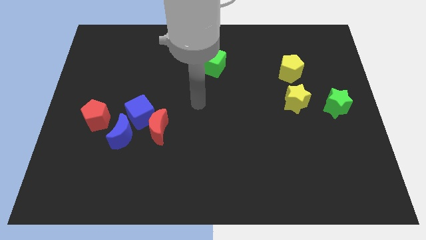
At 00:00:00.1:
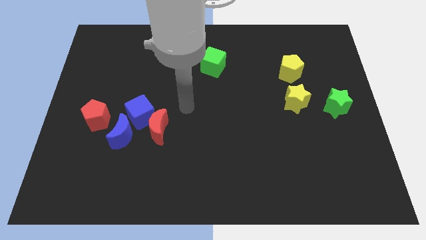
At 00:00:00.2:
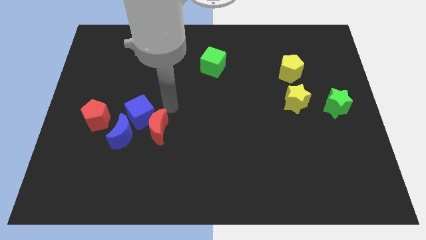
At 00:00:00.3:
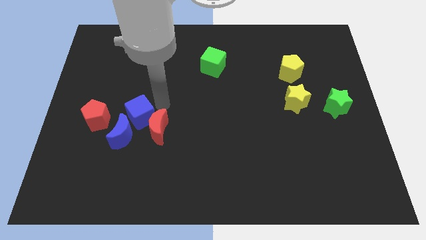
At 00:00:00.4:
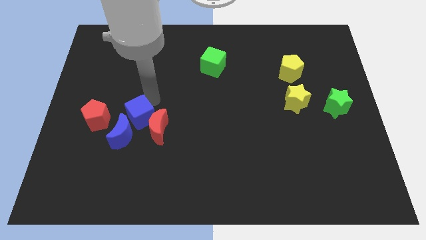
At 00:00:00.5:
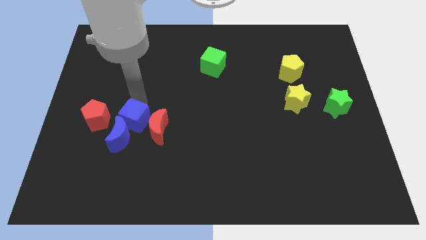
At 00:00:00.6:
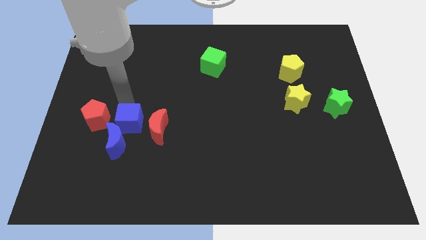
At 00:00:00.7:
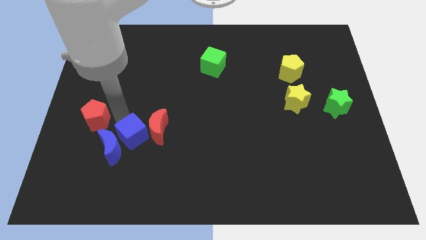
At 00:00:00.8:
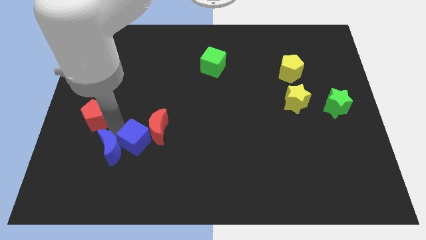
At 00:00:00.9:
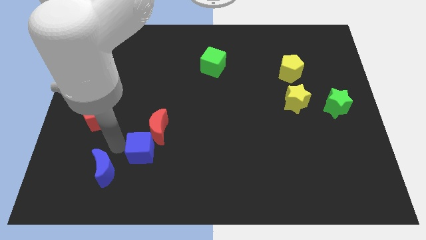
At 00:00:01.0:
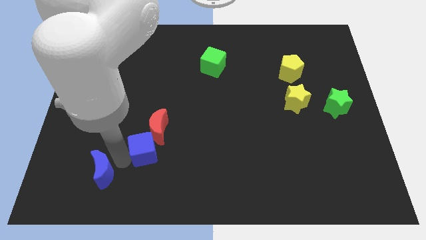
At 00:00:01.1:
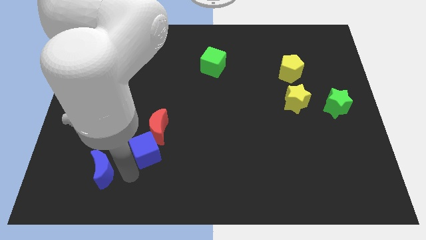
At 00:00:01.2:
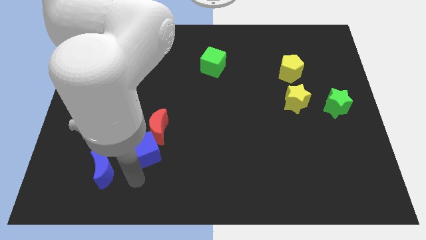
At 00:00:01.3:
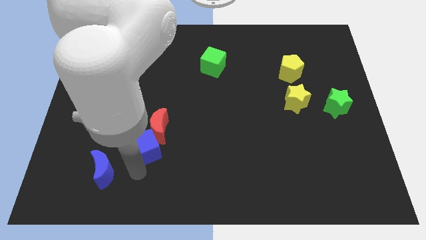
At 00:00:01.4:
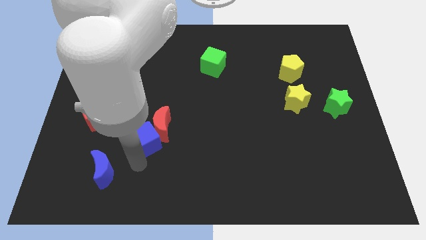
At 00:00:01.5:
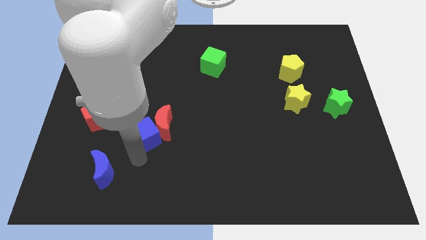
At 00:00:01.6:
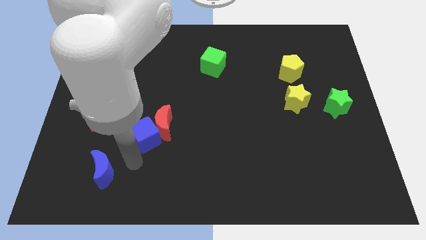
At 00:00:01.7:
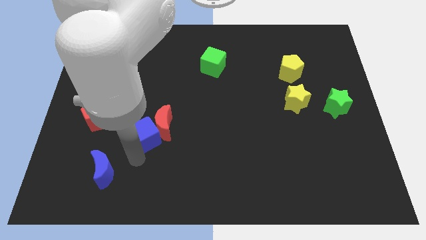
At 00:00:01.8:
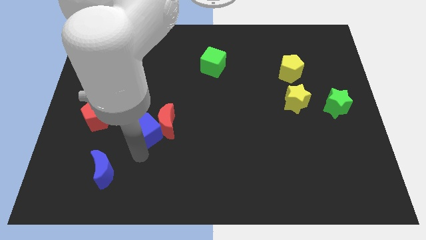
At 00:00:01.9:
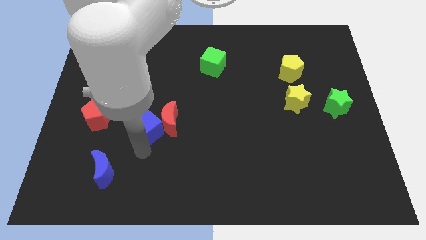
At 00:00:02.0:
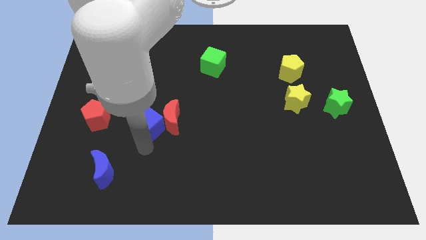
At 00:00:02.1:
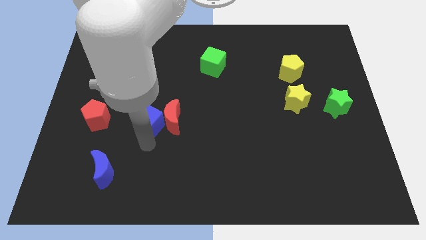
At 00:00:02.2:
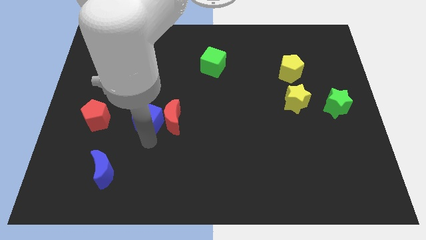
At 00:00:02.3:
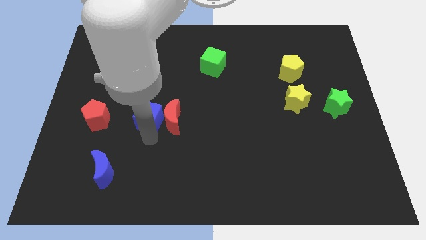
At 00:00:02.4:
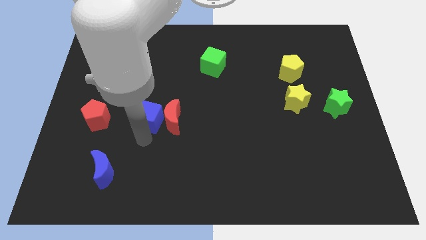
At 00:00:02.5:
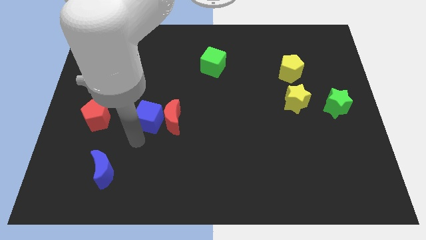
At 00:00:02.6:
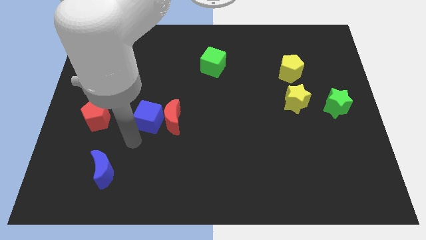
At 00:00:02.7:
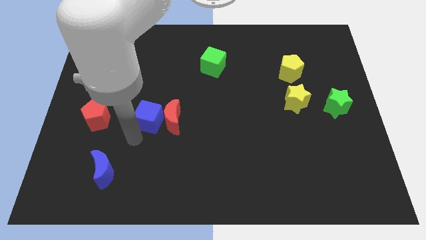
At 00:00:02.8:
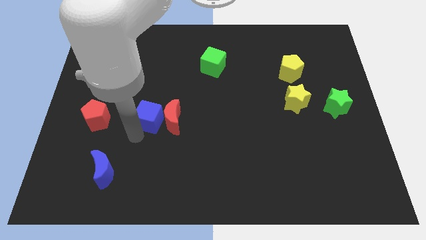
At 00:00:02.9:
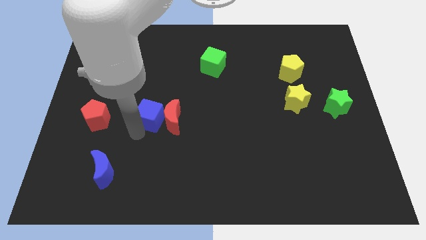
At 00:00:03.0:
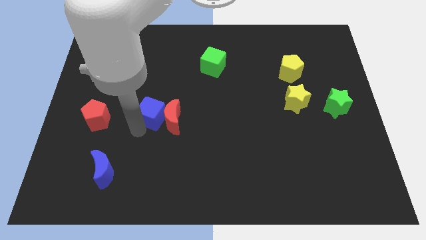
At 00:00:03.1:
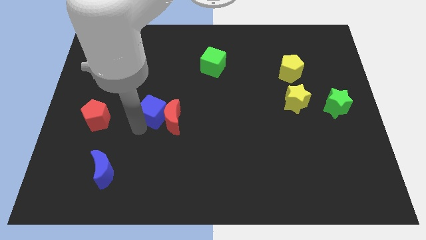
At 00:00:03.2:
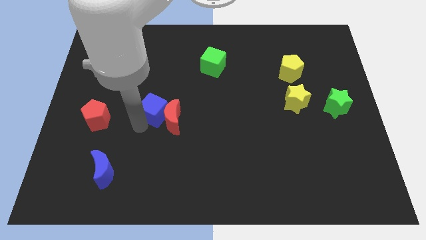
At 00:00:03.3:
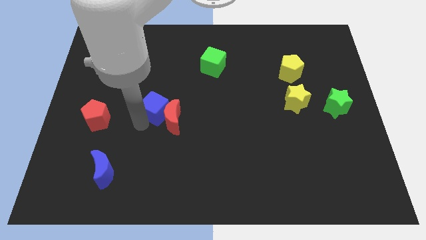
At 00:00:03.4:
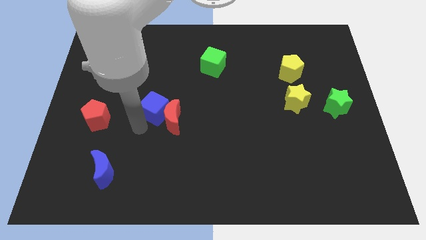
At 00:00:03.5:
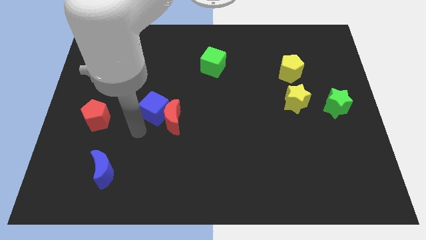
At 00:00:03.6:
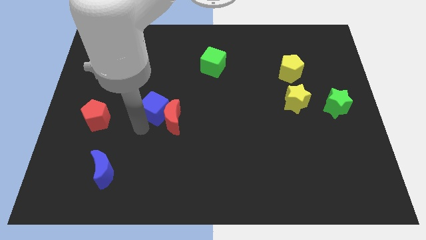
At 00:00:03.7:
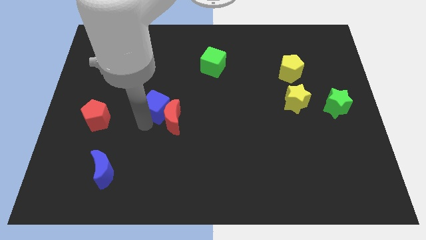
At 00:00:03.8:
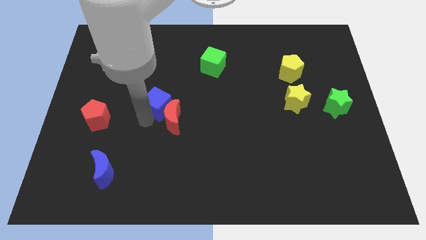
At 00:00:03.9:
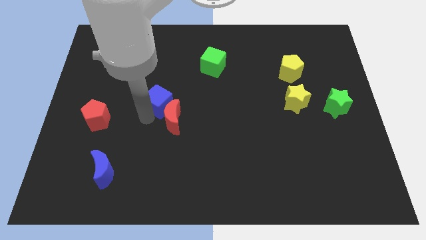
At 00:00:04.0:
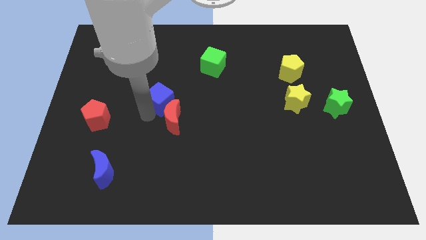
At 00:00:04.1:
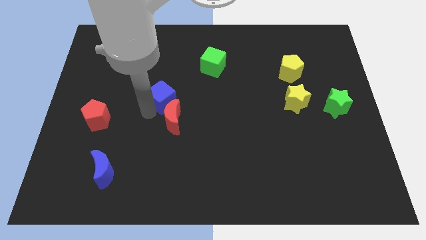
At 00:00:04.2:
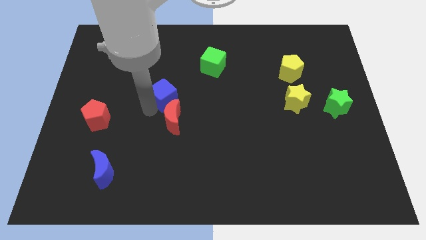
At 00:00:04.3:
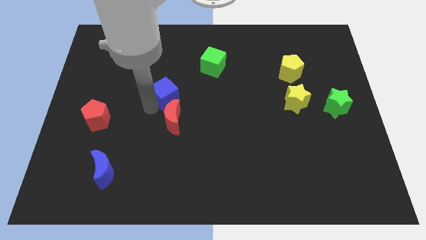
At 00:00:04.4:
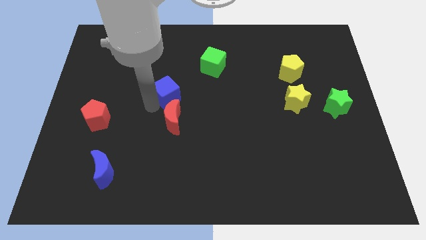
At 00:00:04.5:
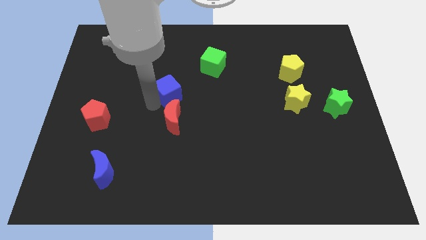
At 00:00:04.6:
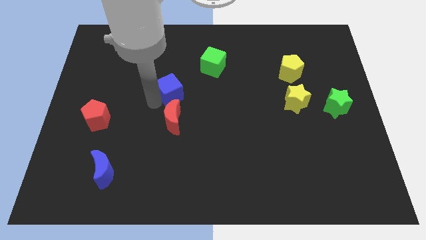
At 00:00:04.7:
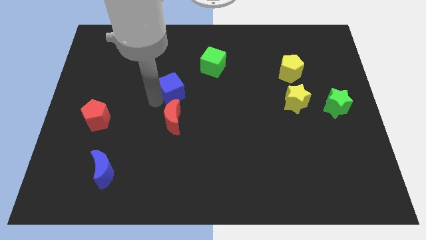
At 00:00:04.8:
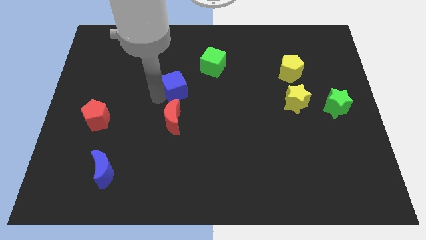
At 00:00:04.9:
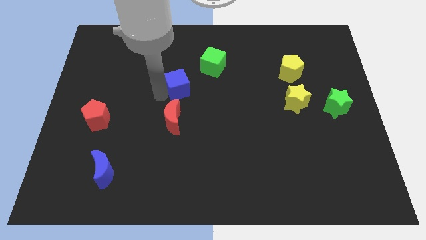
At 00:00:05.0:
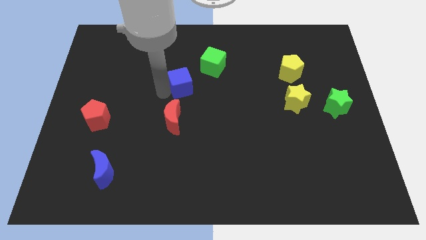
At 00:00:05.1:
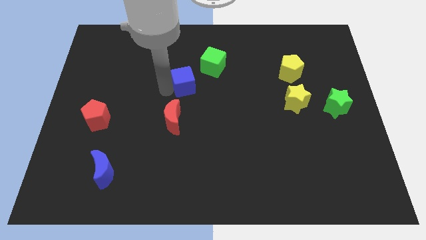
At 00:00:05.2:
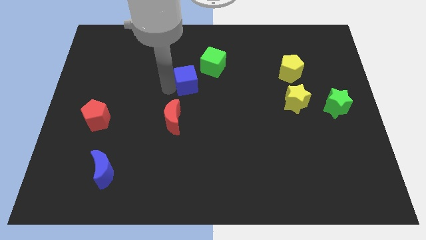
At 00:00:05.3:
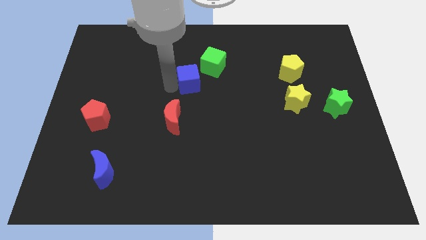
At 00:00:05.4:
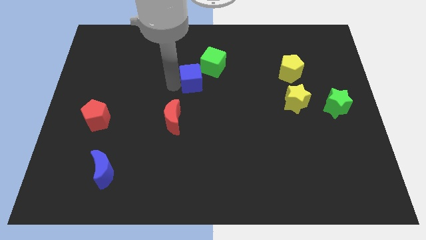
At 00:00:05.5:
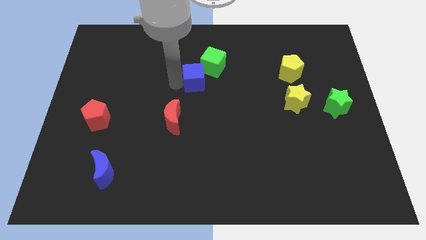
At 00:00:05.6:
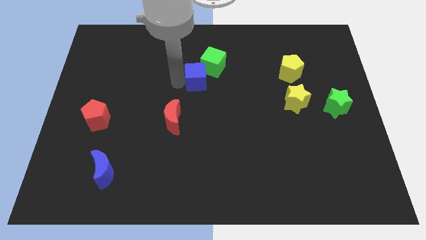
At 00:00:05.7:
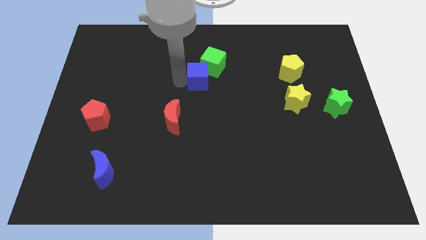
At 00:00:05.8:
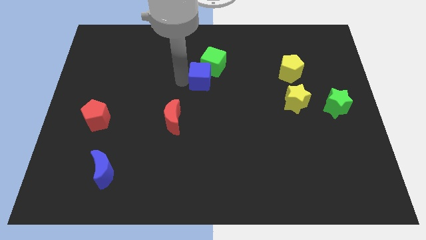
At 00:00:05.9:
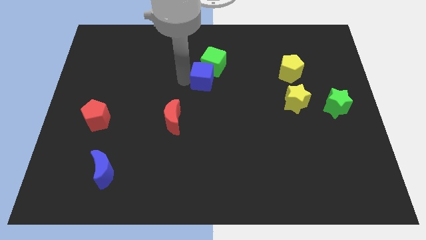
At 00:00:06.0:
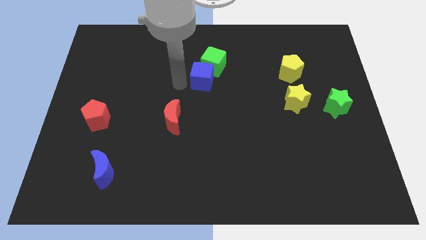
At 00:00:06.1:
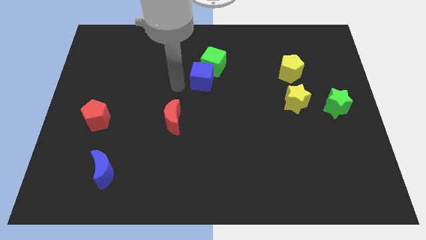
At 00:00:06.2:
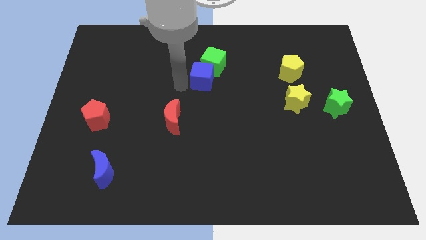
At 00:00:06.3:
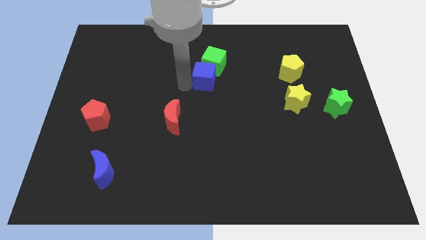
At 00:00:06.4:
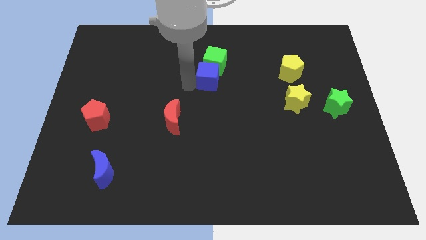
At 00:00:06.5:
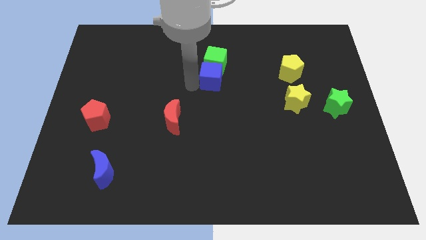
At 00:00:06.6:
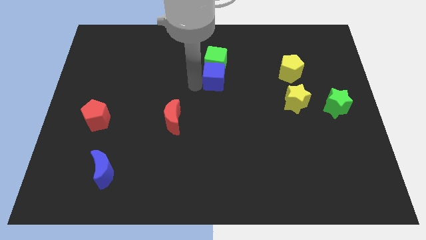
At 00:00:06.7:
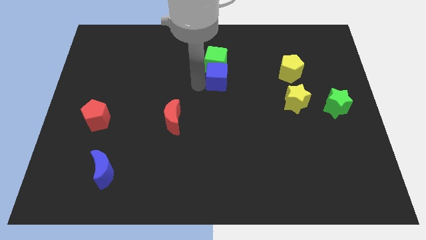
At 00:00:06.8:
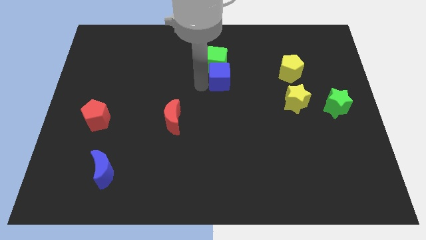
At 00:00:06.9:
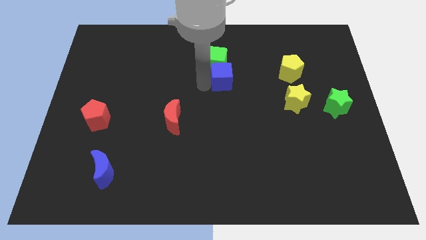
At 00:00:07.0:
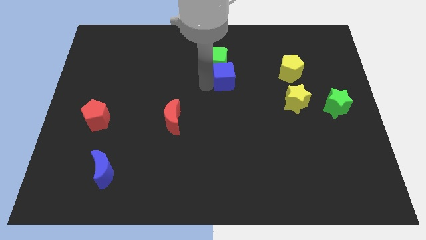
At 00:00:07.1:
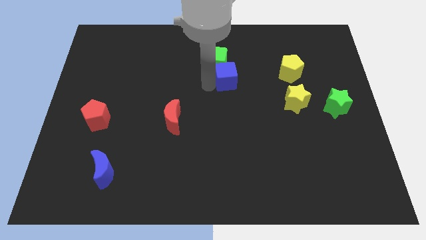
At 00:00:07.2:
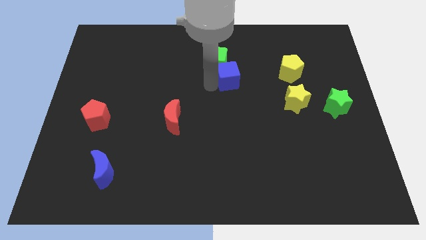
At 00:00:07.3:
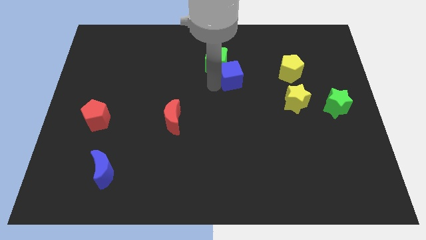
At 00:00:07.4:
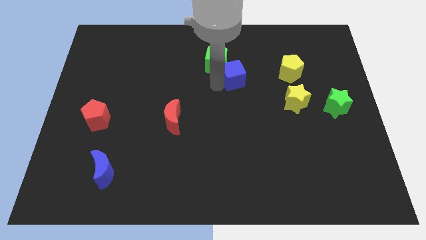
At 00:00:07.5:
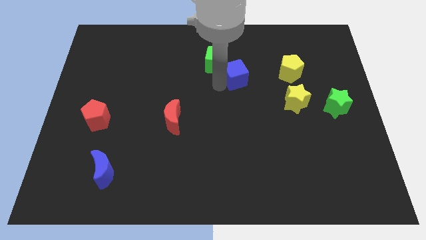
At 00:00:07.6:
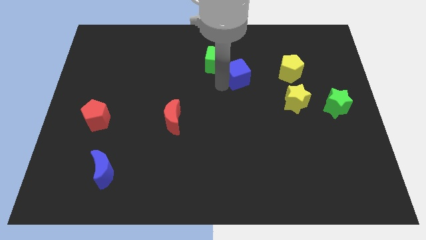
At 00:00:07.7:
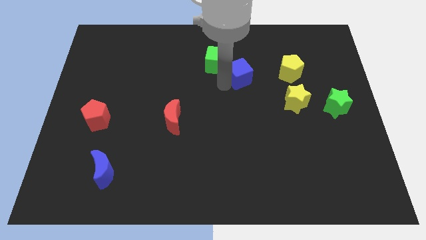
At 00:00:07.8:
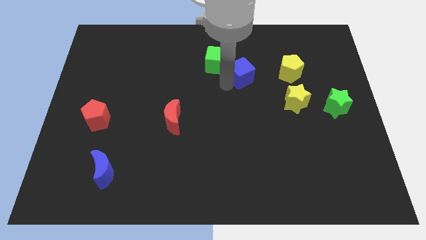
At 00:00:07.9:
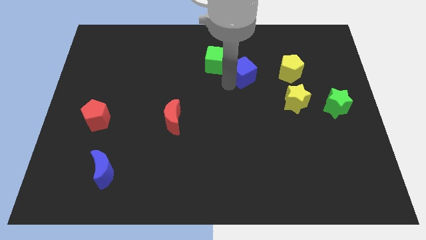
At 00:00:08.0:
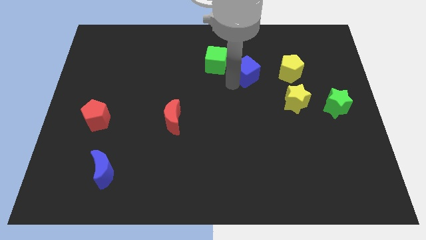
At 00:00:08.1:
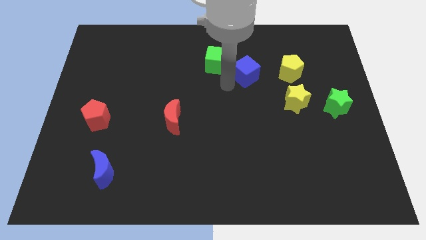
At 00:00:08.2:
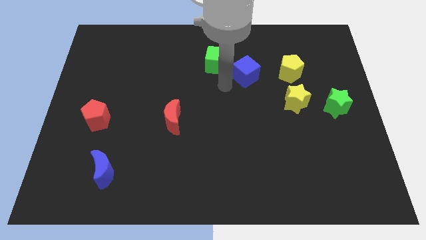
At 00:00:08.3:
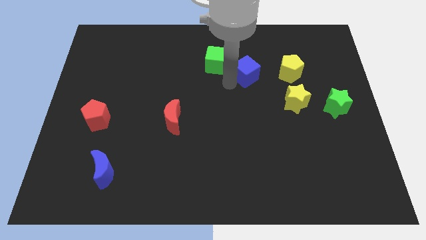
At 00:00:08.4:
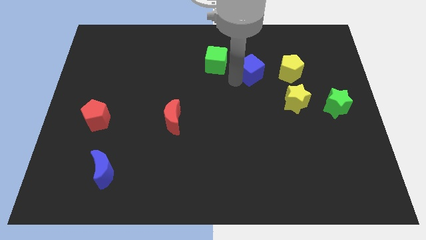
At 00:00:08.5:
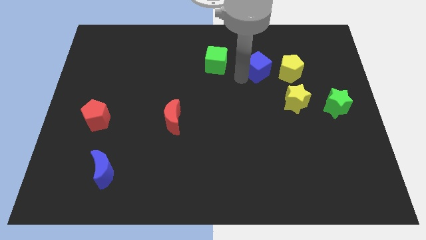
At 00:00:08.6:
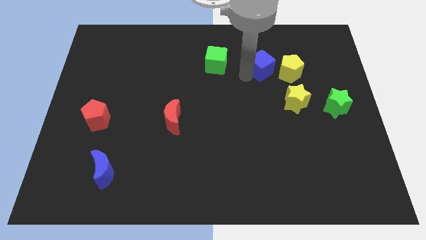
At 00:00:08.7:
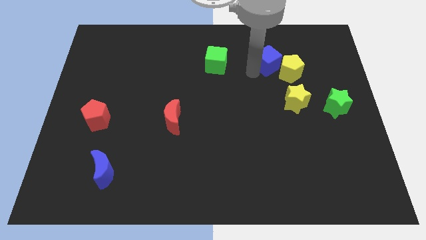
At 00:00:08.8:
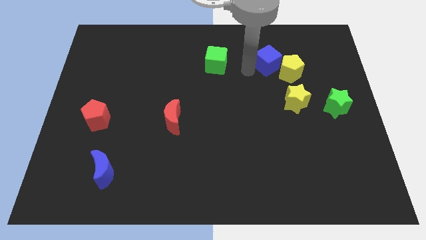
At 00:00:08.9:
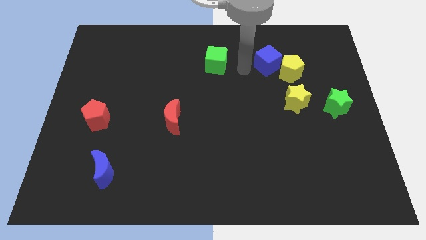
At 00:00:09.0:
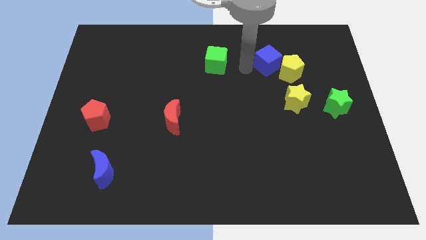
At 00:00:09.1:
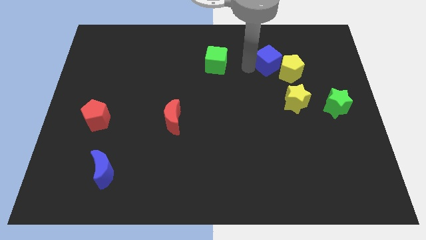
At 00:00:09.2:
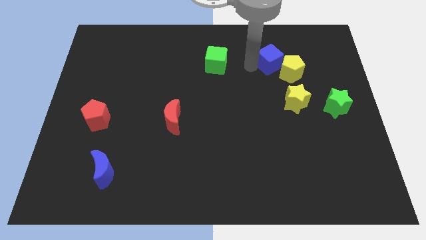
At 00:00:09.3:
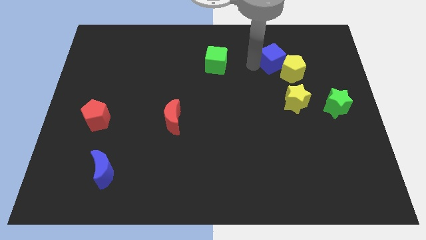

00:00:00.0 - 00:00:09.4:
put the blue cube to the top side of the yellow star
